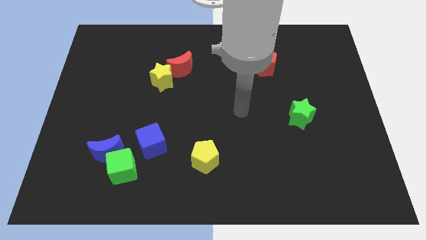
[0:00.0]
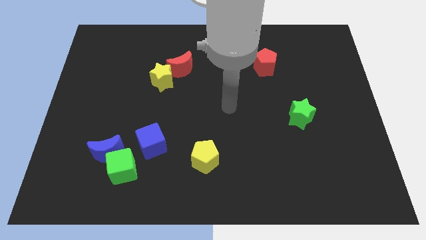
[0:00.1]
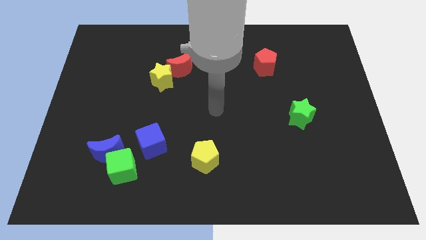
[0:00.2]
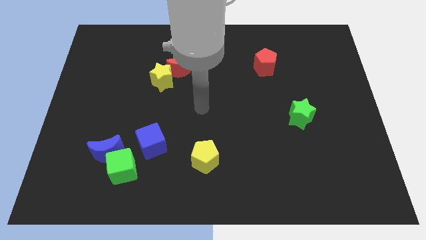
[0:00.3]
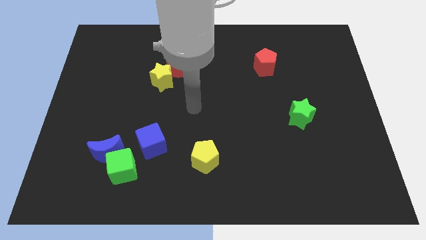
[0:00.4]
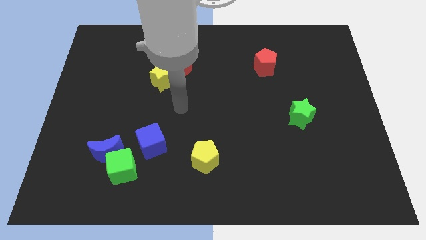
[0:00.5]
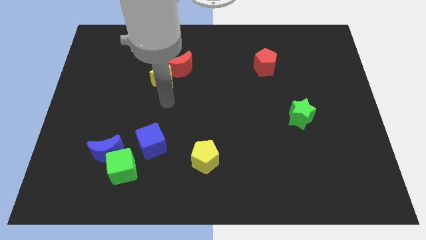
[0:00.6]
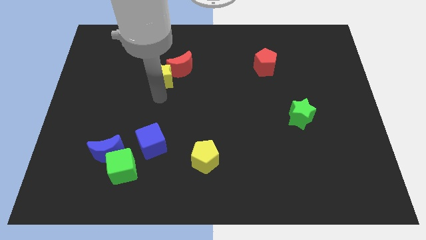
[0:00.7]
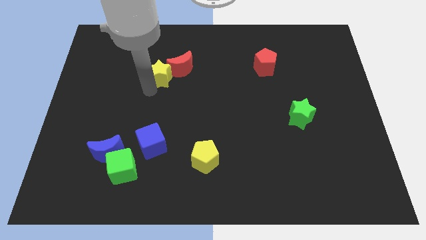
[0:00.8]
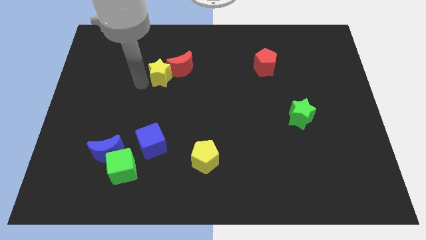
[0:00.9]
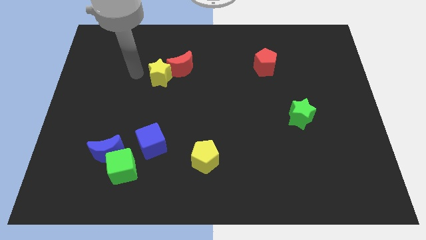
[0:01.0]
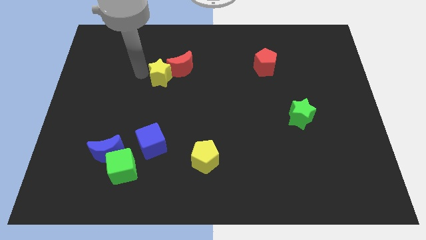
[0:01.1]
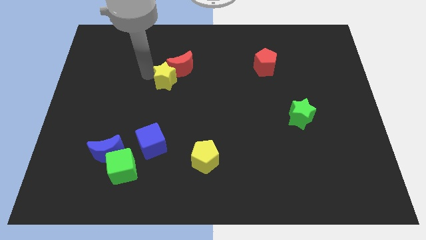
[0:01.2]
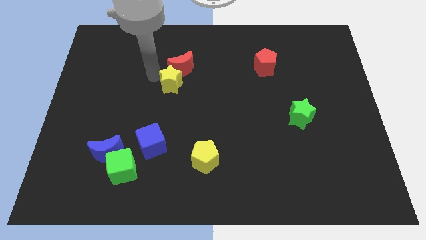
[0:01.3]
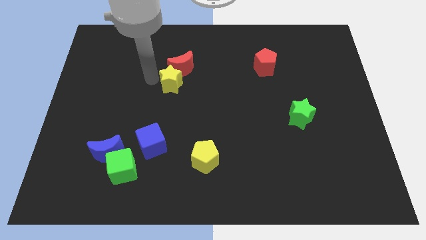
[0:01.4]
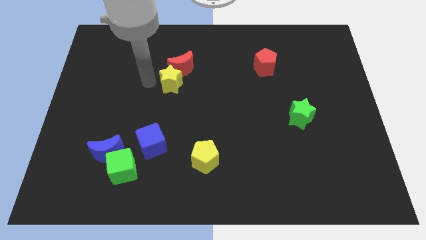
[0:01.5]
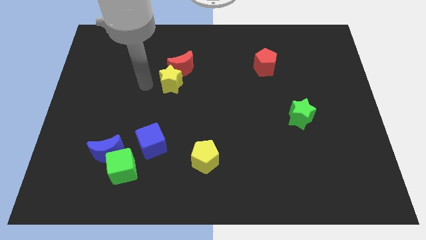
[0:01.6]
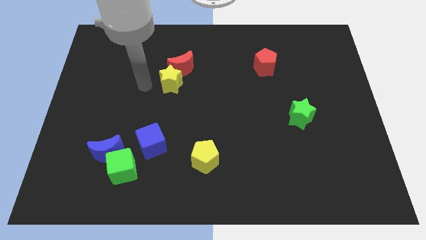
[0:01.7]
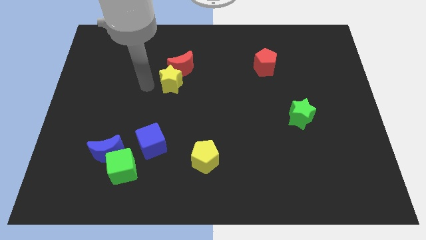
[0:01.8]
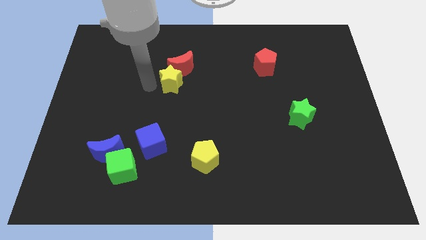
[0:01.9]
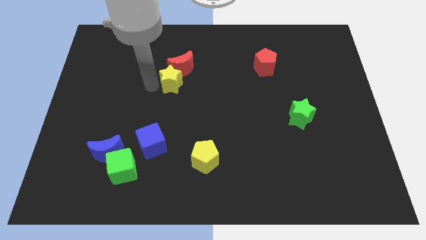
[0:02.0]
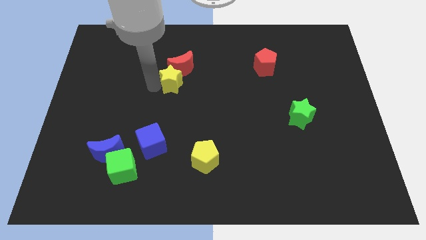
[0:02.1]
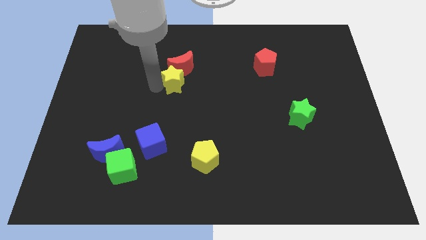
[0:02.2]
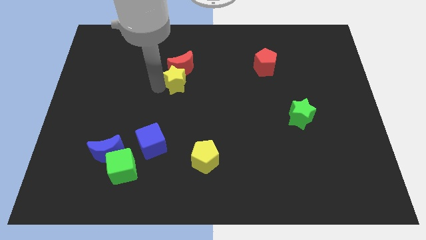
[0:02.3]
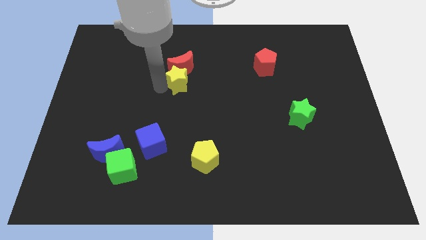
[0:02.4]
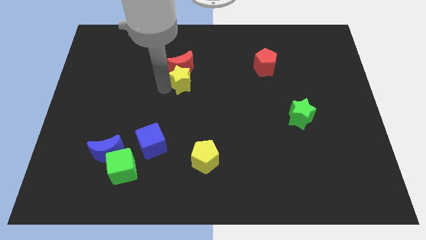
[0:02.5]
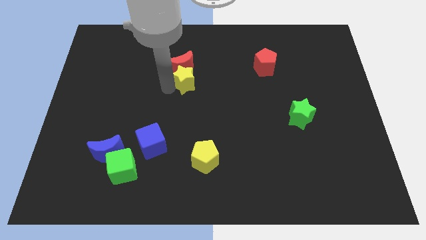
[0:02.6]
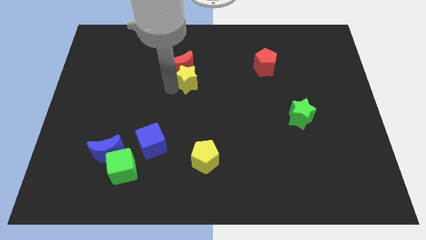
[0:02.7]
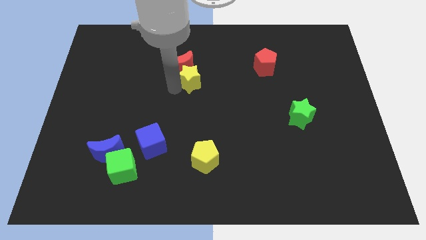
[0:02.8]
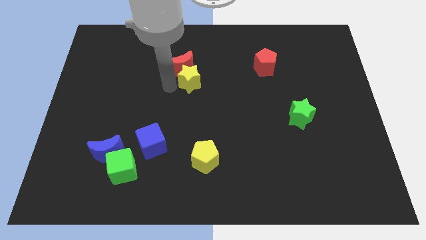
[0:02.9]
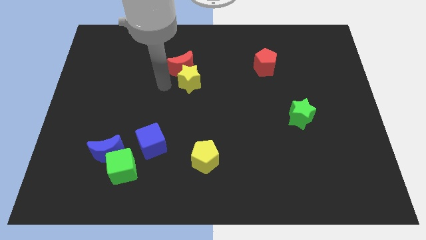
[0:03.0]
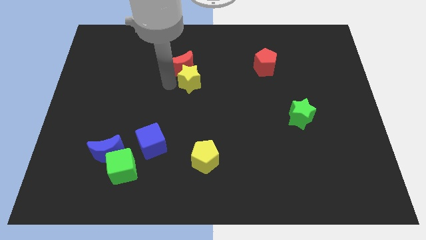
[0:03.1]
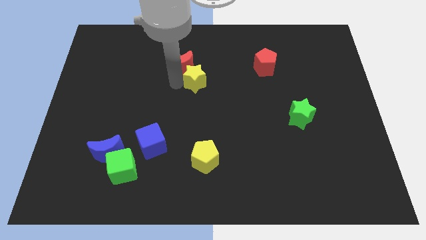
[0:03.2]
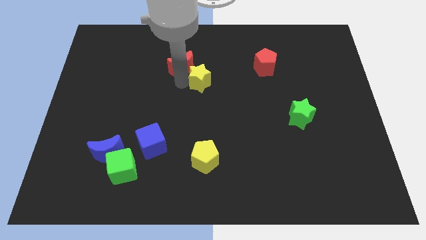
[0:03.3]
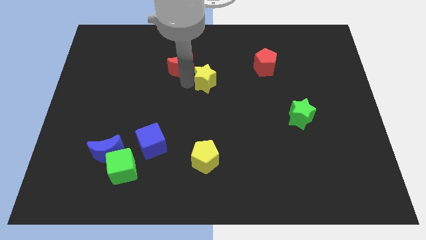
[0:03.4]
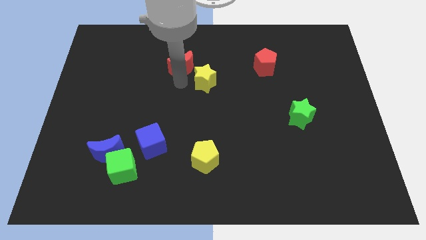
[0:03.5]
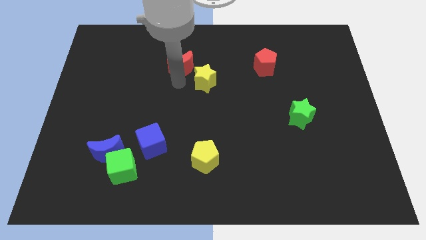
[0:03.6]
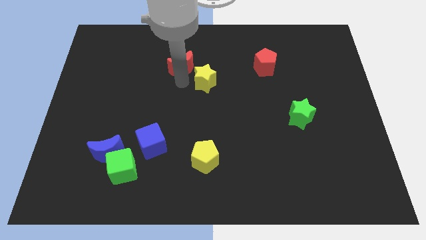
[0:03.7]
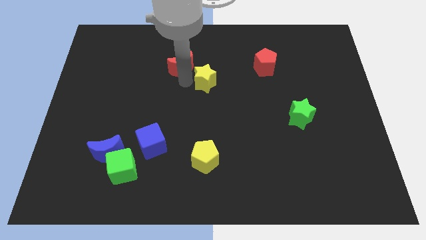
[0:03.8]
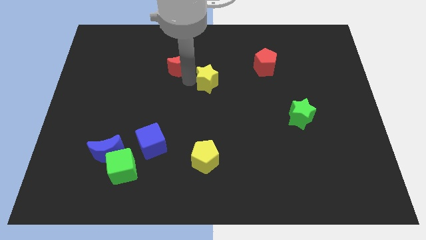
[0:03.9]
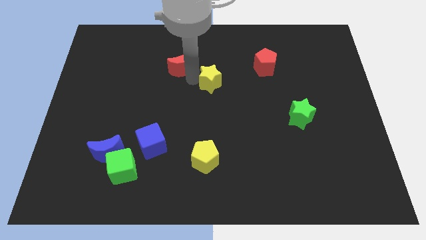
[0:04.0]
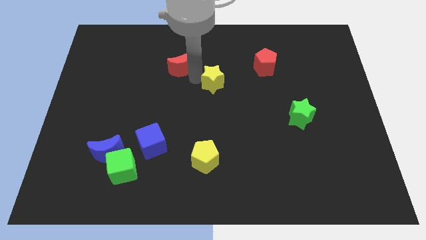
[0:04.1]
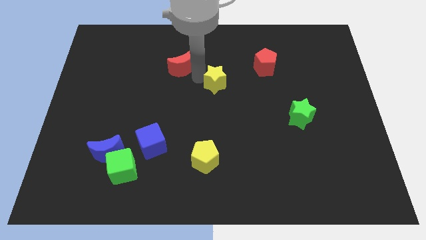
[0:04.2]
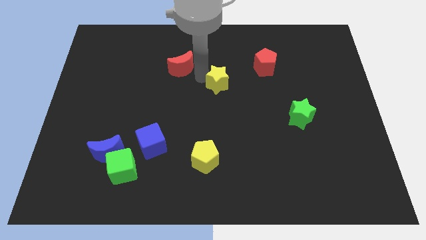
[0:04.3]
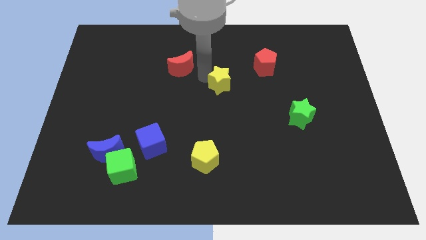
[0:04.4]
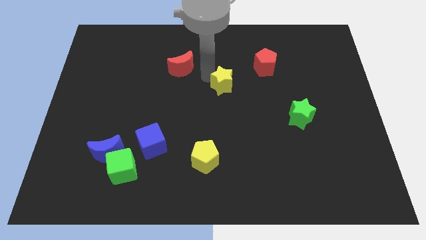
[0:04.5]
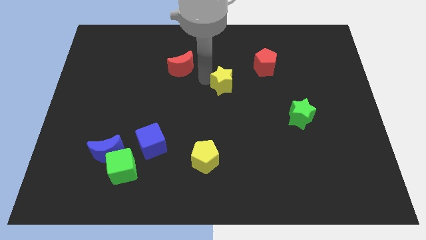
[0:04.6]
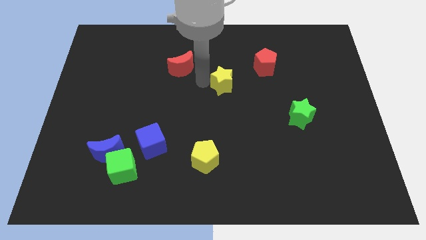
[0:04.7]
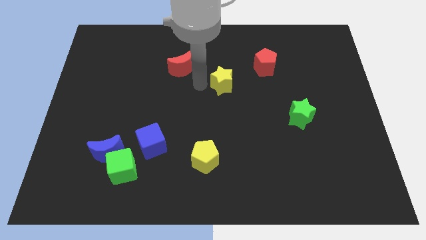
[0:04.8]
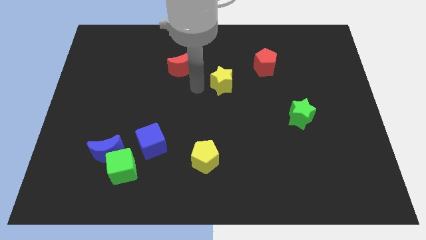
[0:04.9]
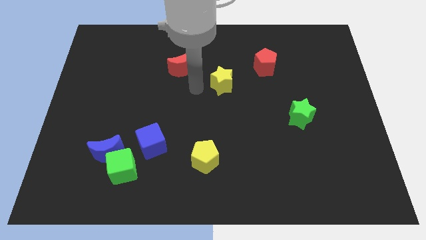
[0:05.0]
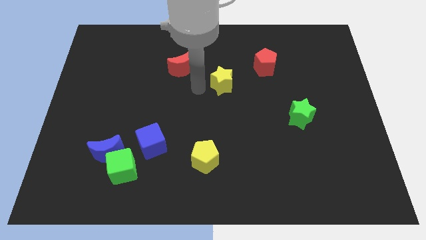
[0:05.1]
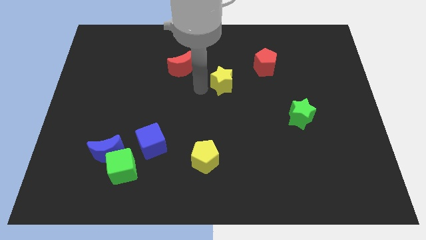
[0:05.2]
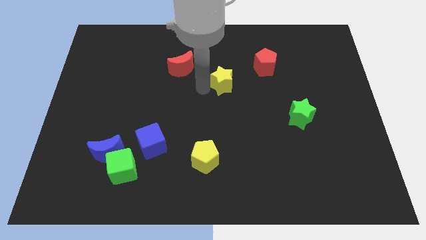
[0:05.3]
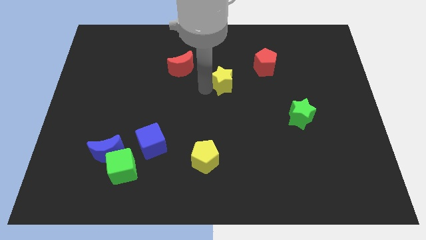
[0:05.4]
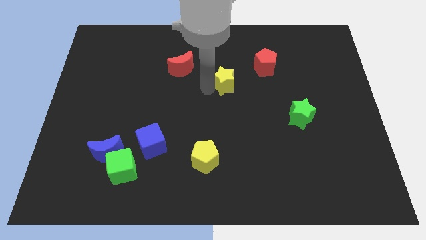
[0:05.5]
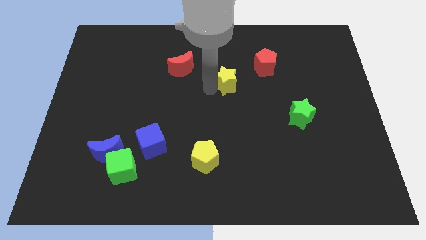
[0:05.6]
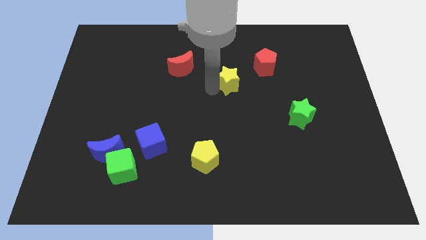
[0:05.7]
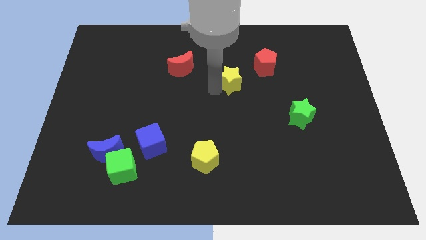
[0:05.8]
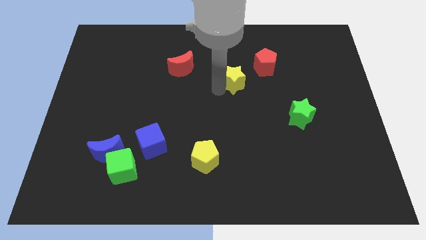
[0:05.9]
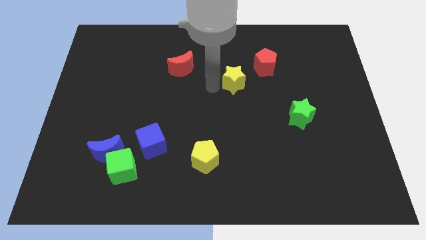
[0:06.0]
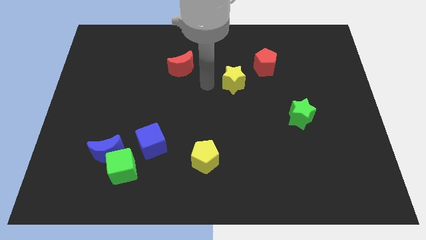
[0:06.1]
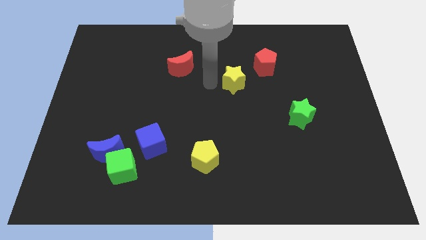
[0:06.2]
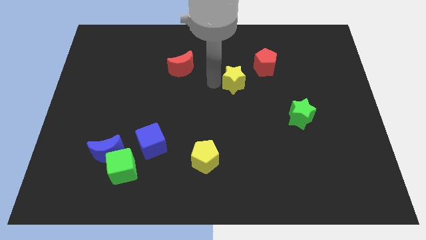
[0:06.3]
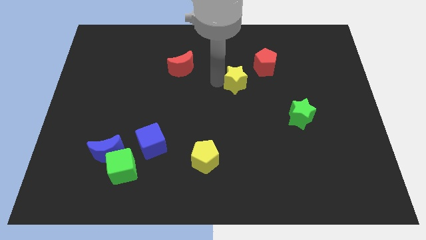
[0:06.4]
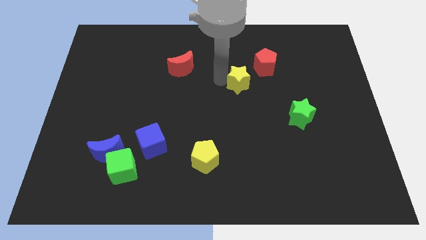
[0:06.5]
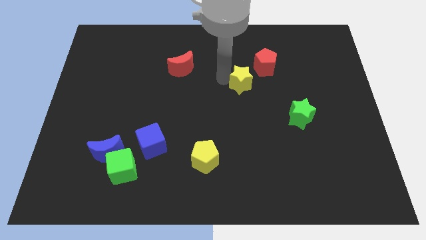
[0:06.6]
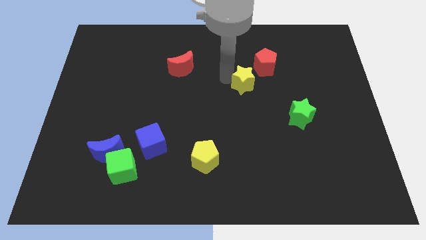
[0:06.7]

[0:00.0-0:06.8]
move the yellow star right

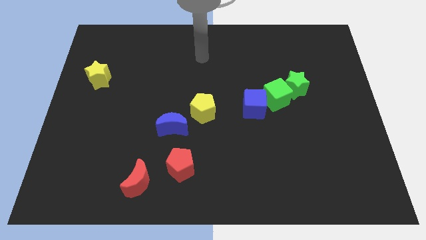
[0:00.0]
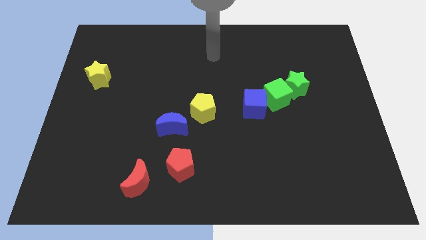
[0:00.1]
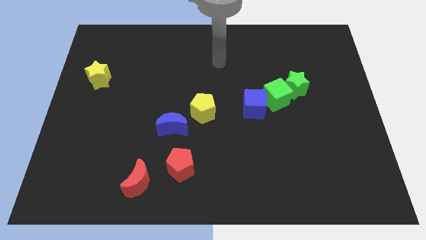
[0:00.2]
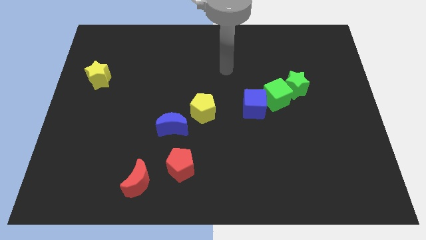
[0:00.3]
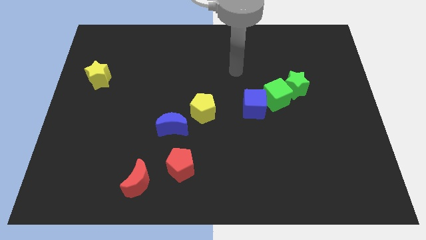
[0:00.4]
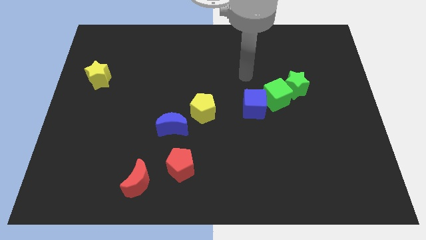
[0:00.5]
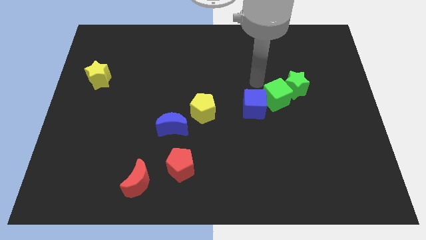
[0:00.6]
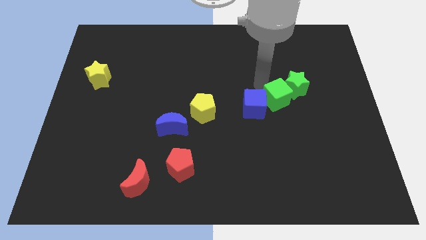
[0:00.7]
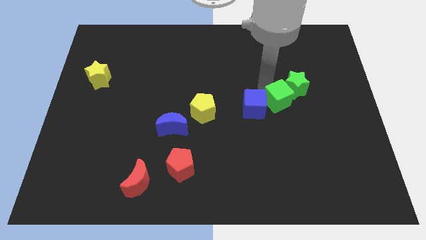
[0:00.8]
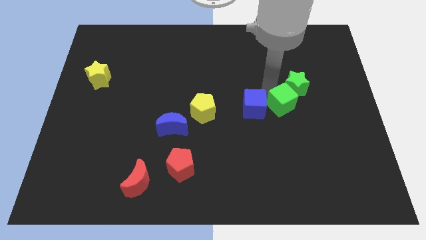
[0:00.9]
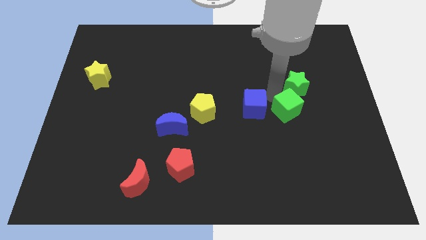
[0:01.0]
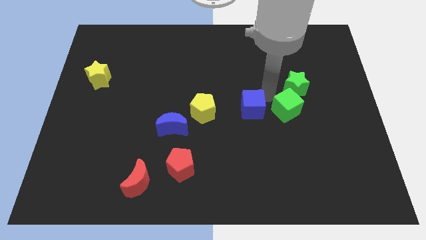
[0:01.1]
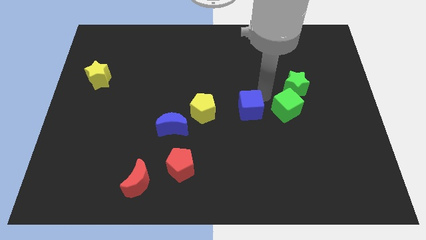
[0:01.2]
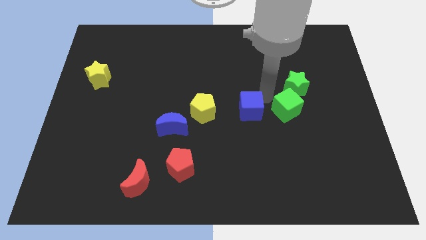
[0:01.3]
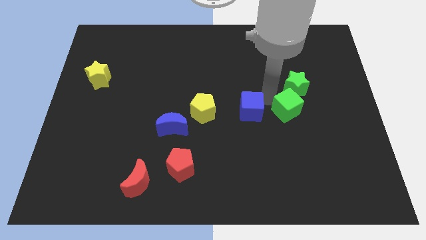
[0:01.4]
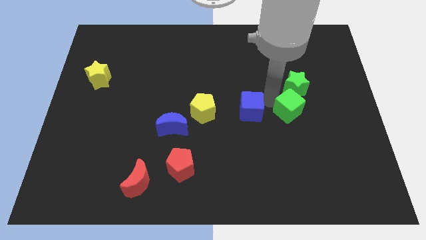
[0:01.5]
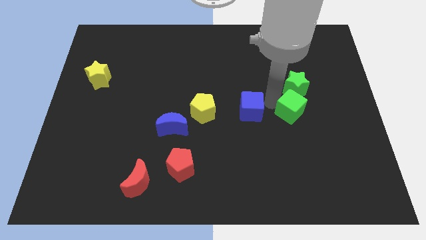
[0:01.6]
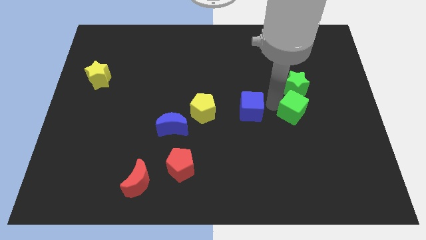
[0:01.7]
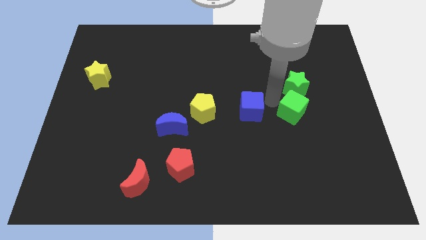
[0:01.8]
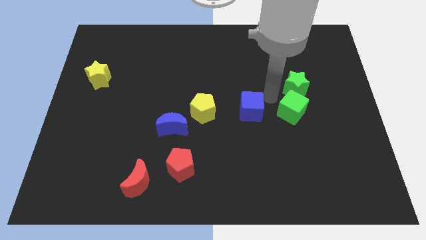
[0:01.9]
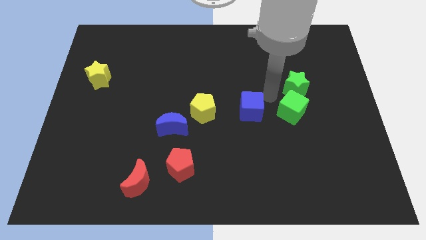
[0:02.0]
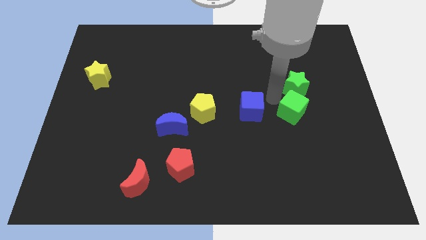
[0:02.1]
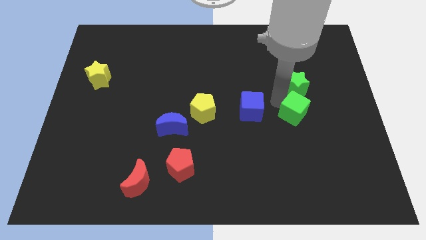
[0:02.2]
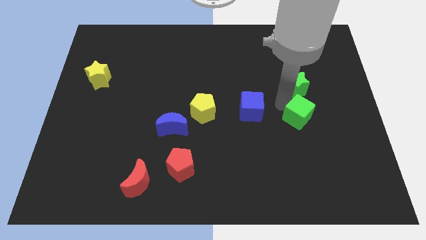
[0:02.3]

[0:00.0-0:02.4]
slightly push the green cube diagonally downwards and right
